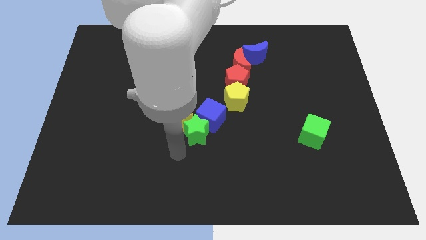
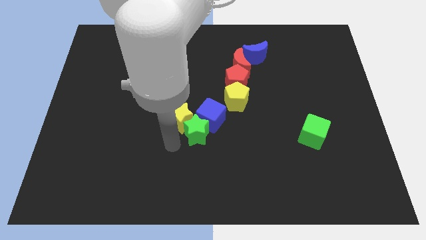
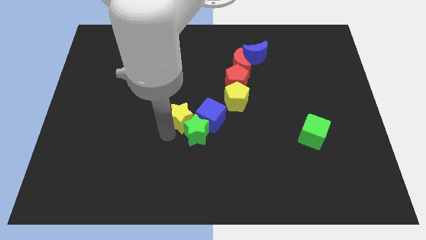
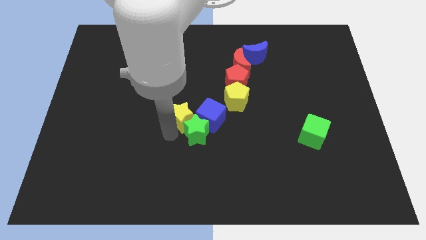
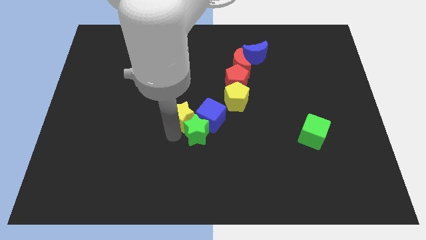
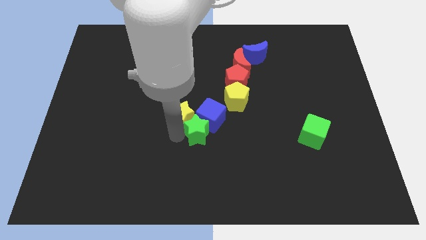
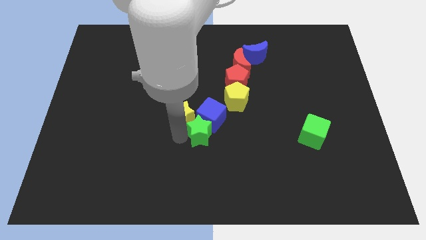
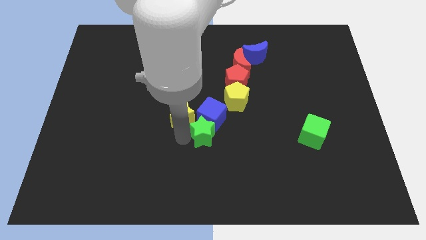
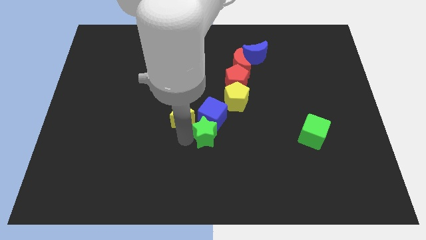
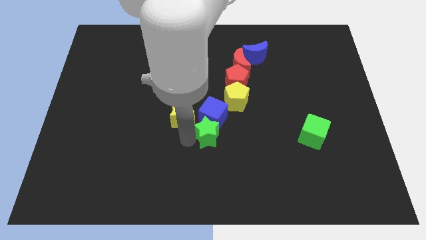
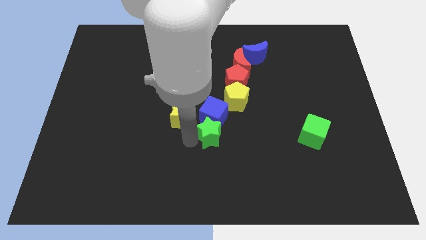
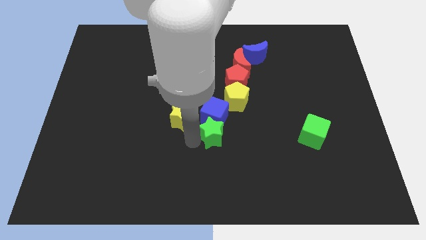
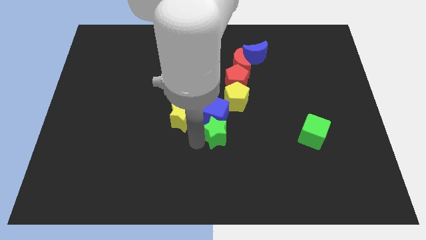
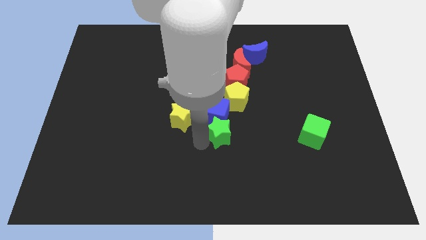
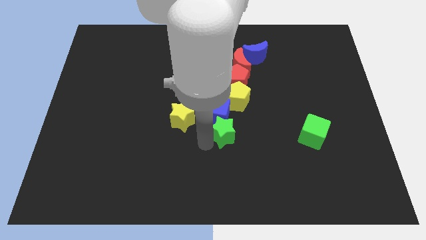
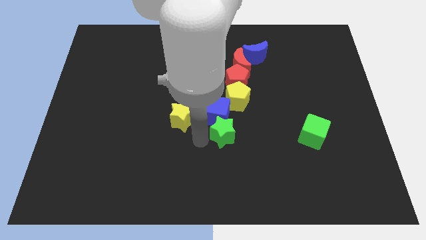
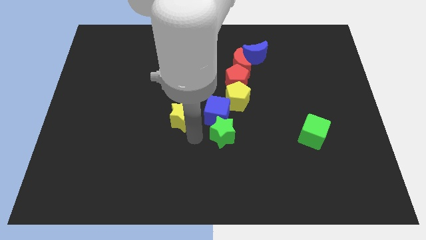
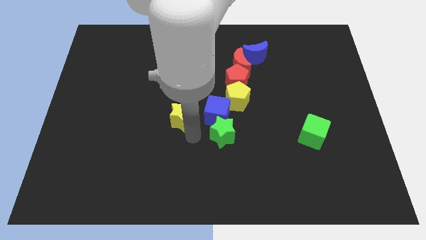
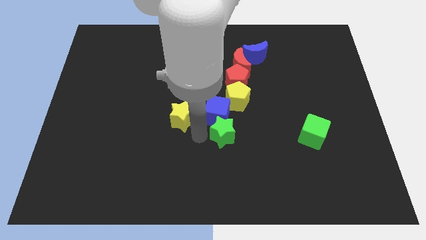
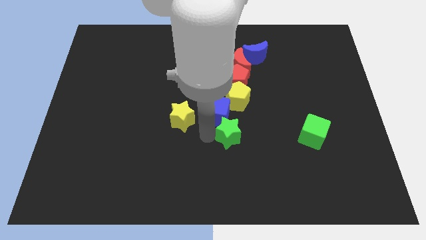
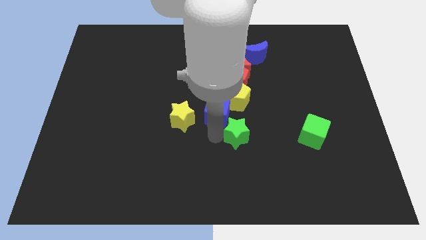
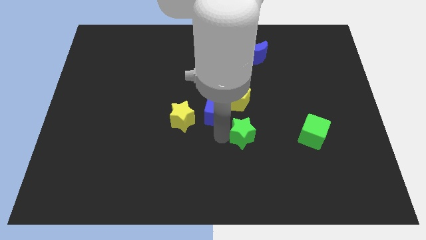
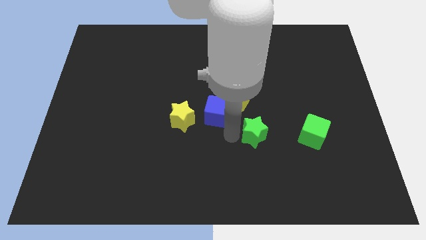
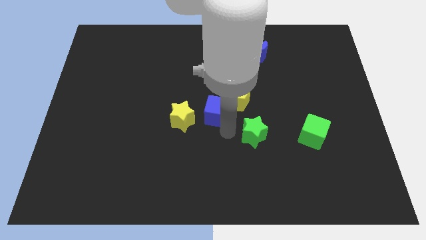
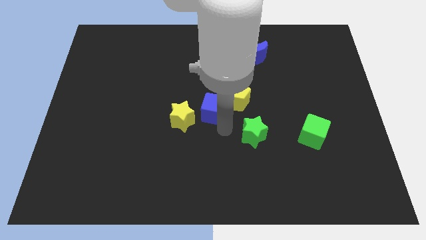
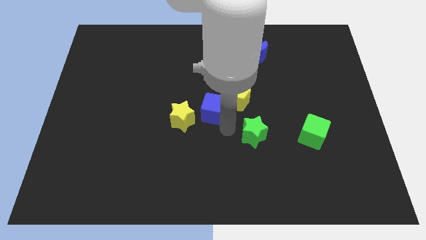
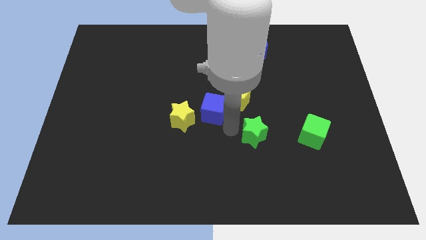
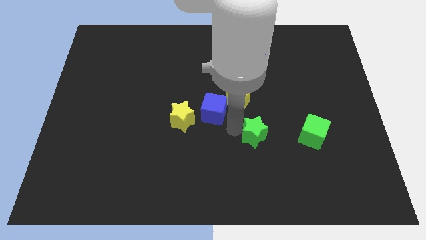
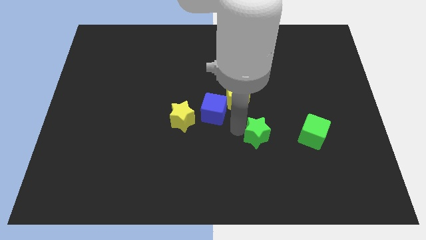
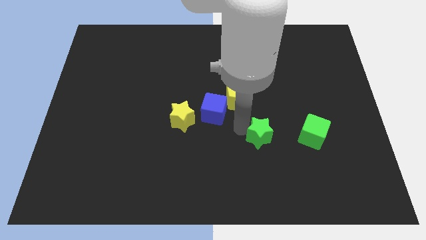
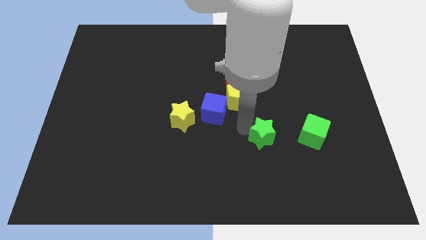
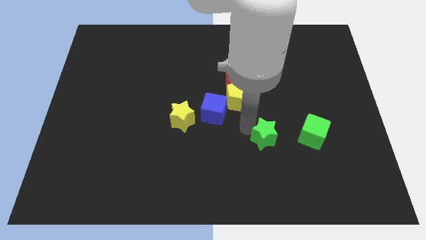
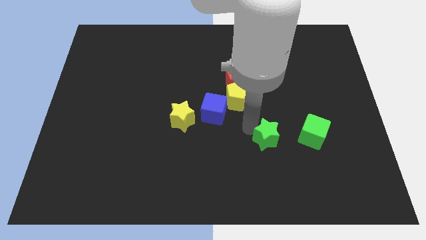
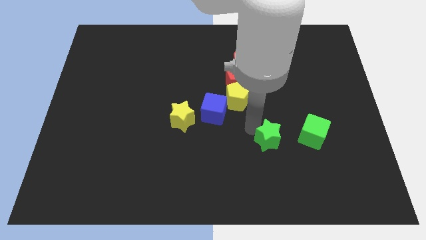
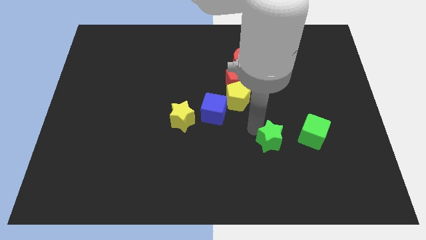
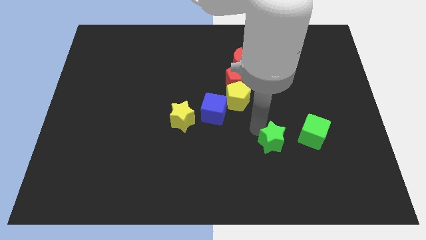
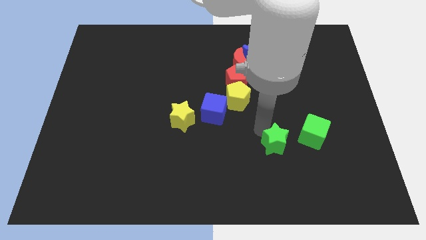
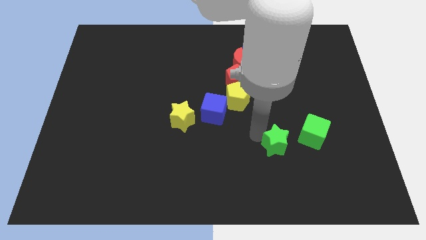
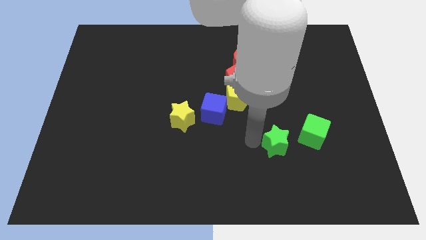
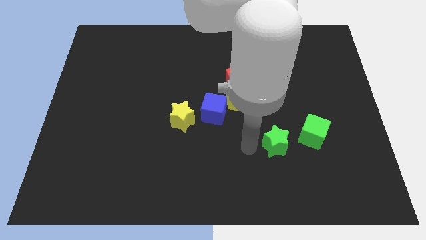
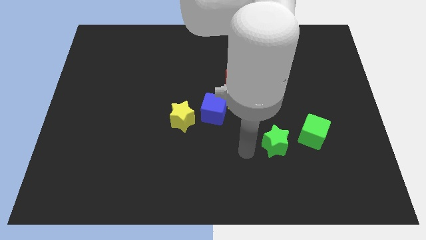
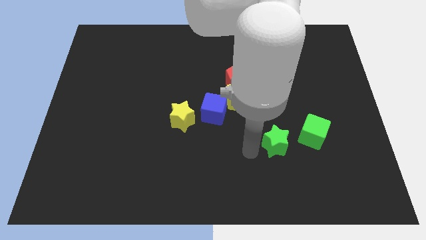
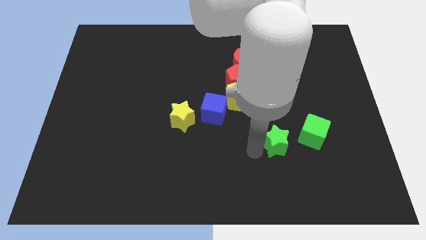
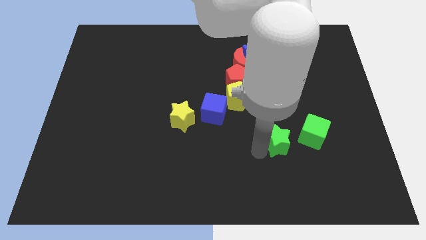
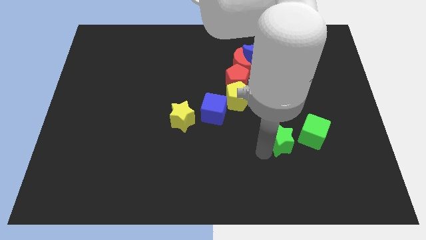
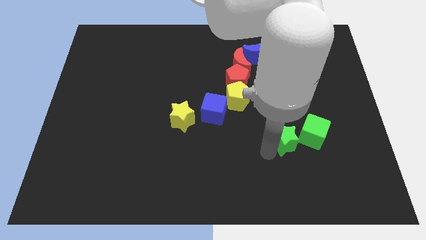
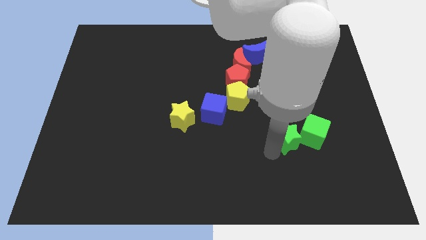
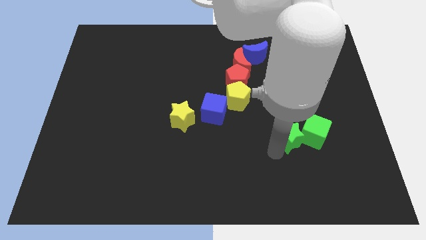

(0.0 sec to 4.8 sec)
push the green star to the green cube
